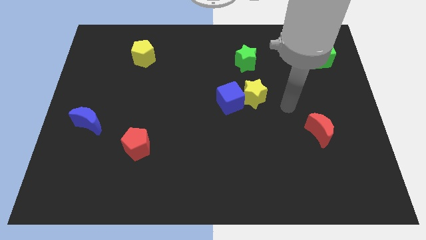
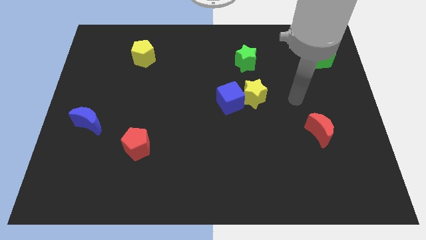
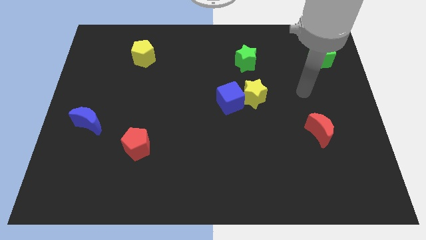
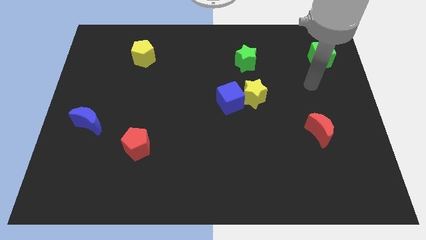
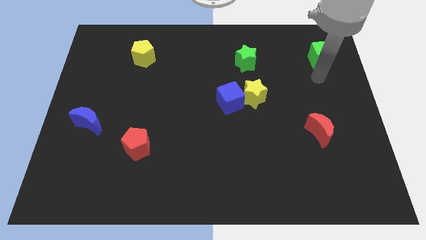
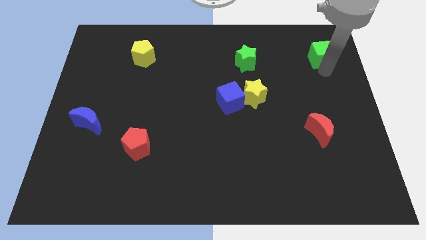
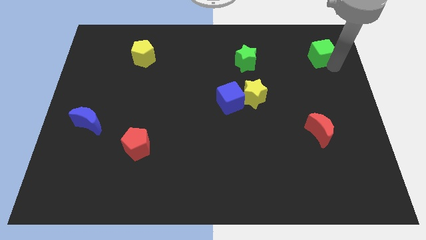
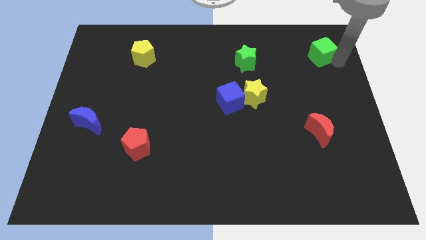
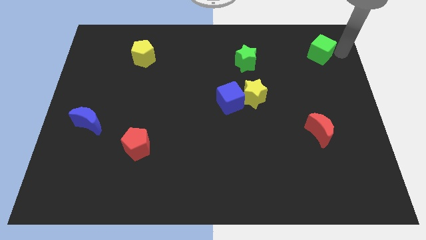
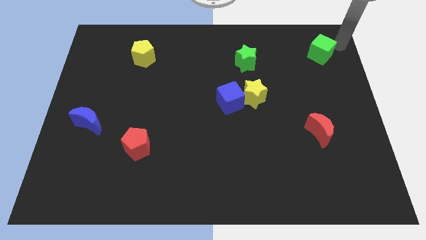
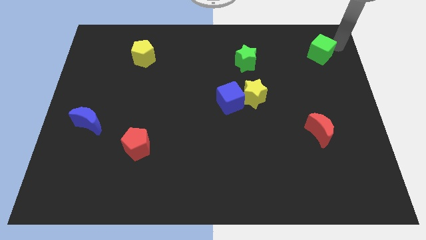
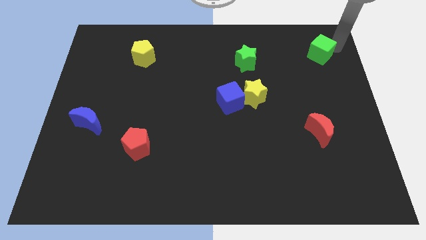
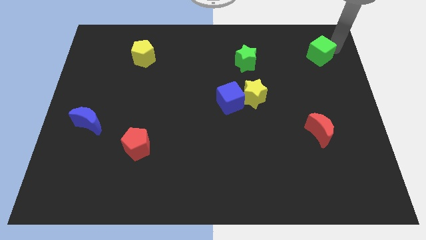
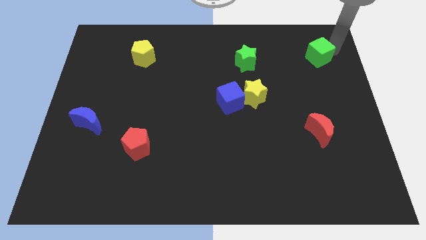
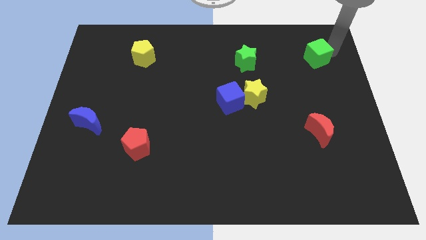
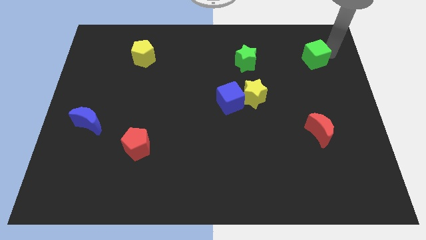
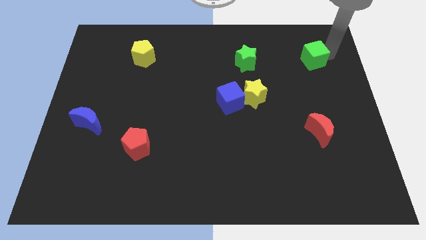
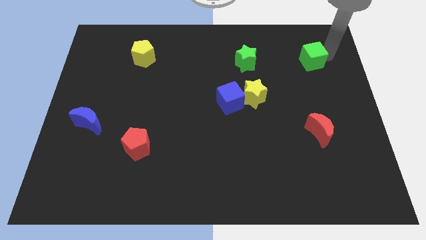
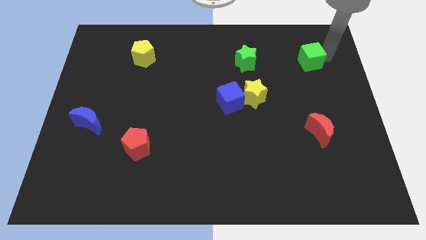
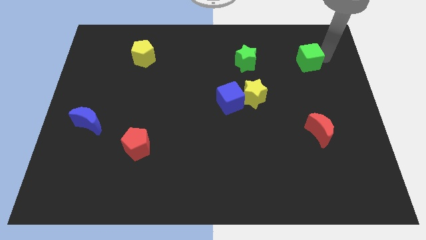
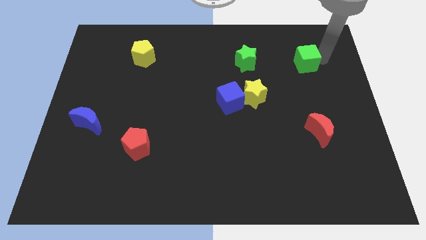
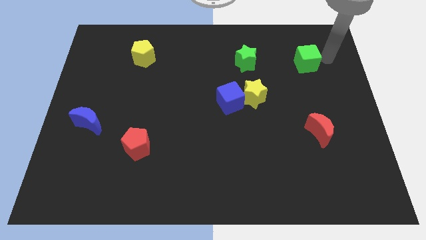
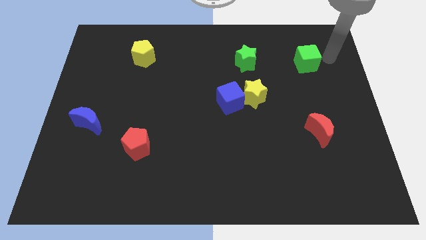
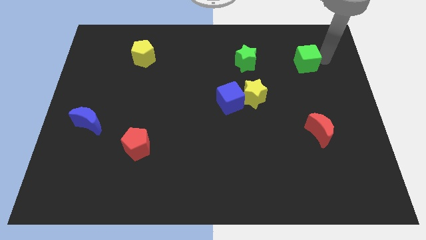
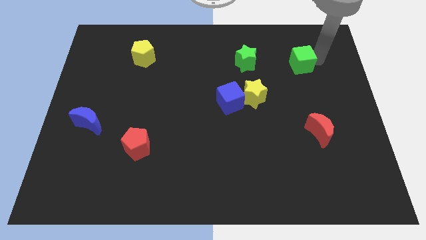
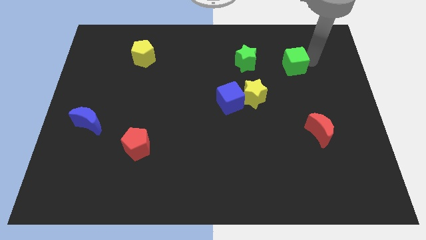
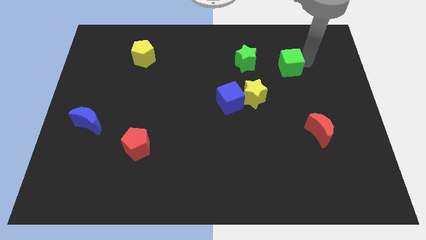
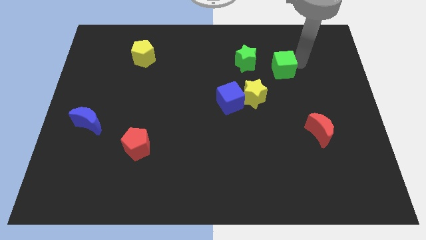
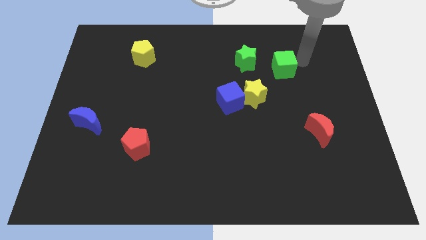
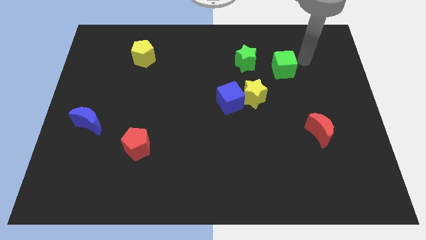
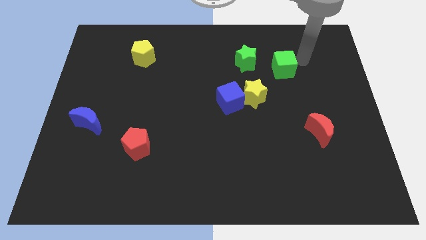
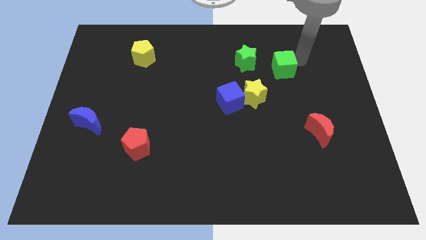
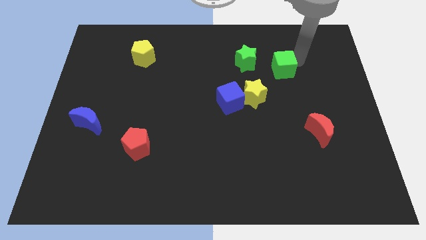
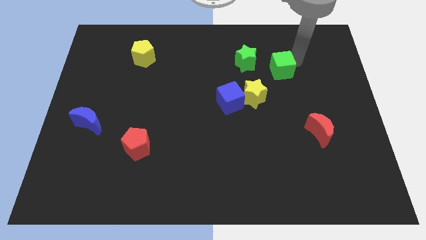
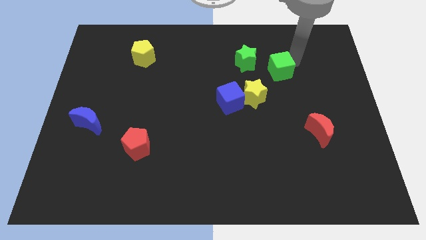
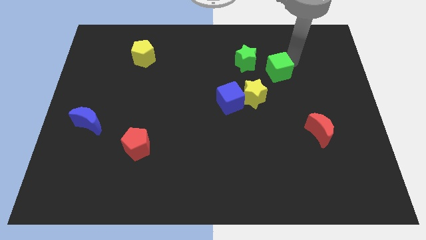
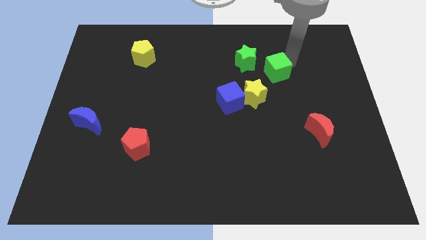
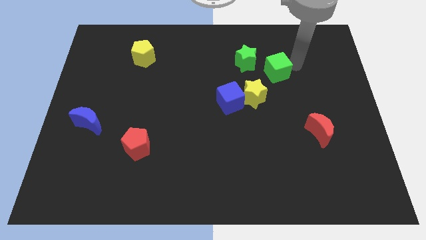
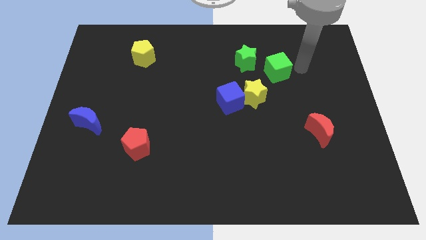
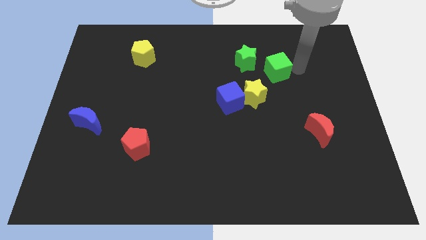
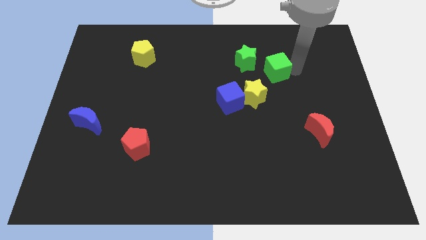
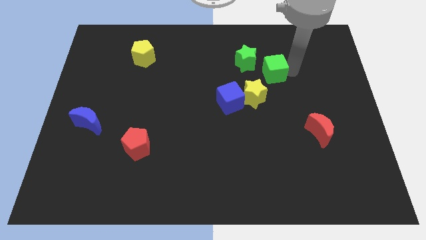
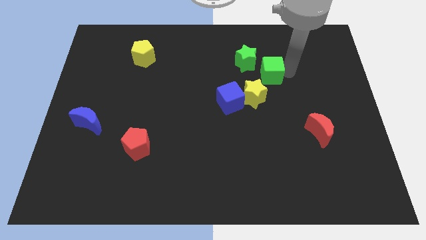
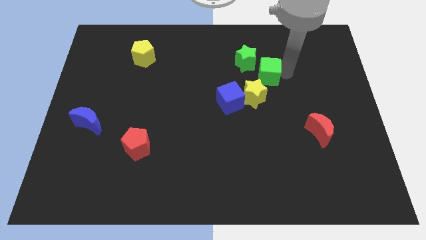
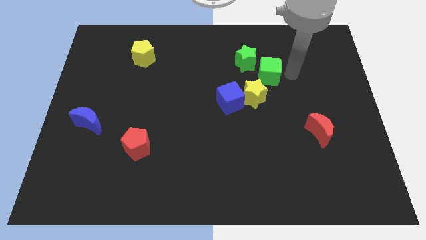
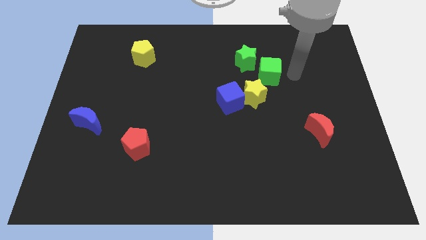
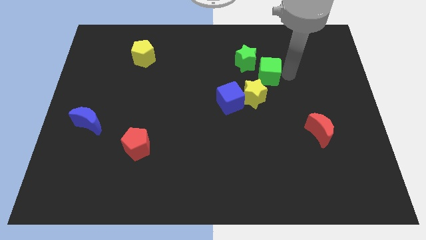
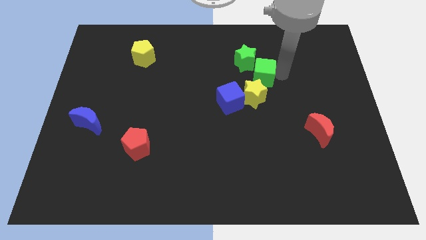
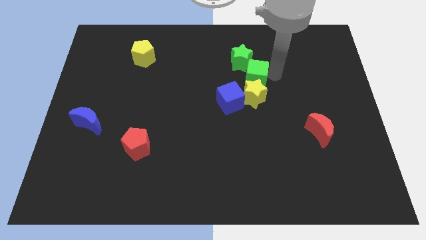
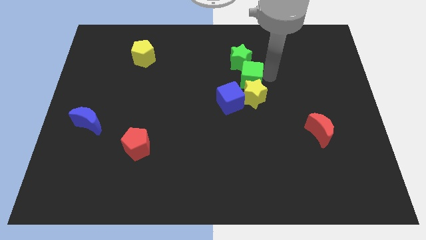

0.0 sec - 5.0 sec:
move the green cube to the center
